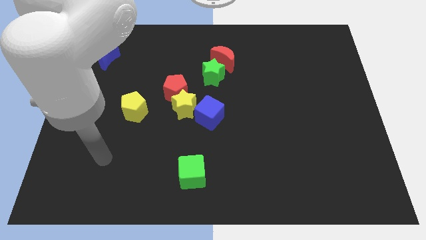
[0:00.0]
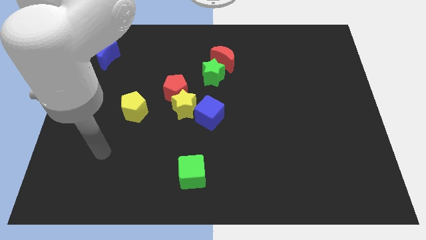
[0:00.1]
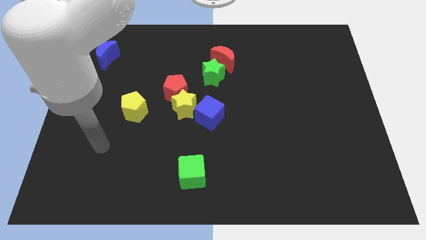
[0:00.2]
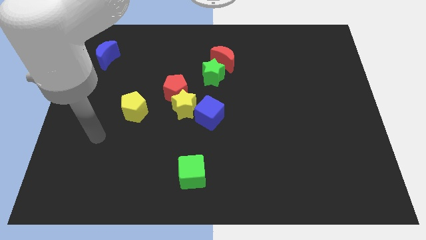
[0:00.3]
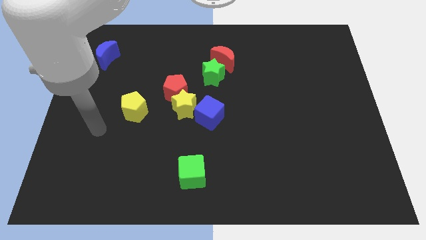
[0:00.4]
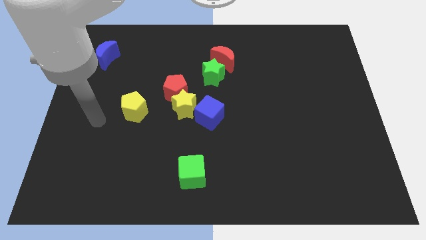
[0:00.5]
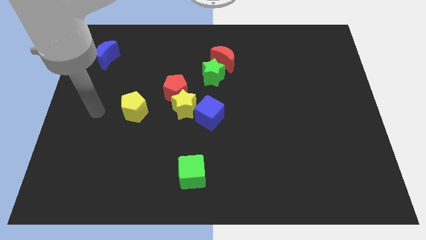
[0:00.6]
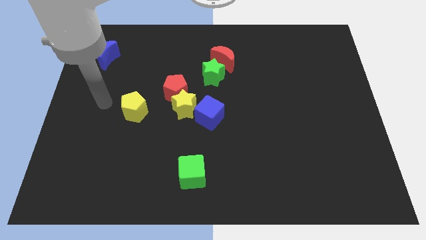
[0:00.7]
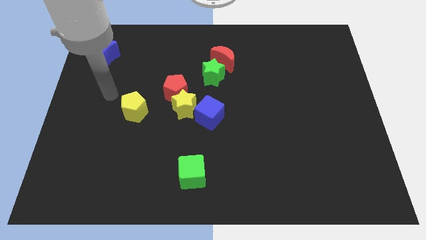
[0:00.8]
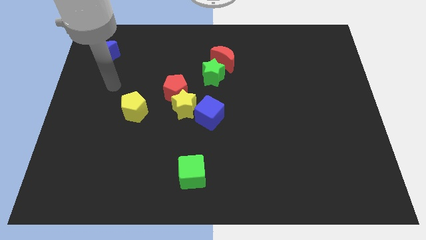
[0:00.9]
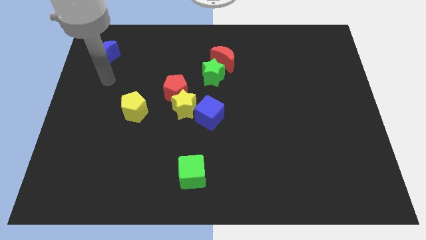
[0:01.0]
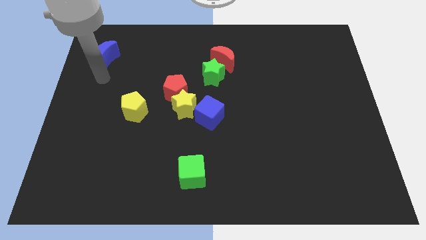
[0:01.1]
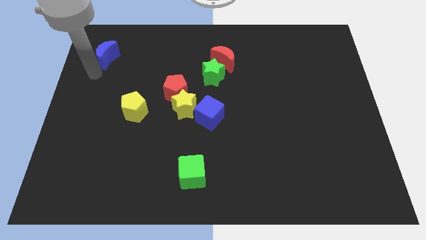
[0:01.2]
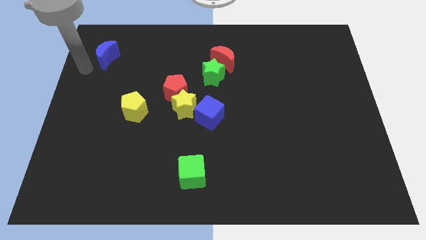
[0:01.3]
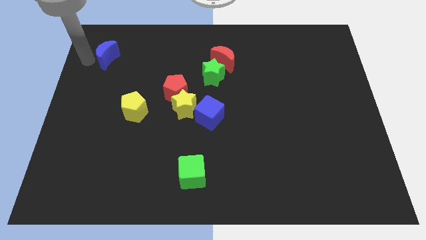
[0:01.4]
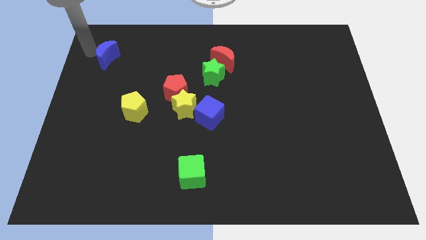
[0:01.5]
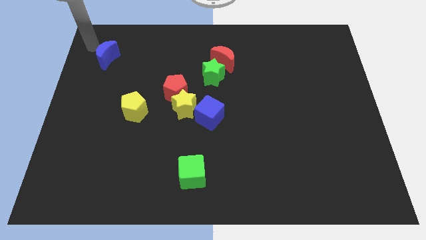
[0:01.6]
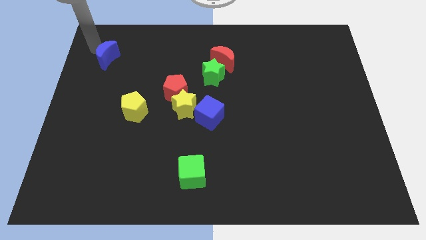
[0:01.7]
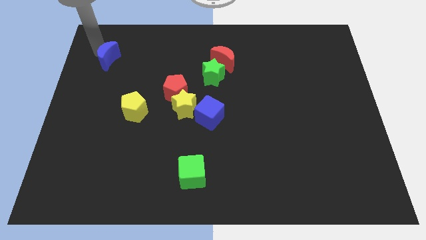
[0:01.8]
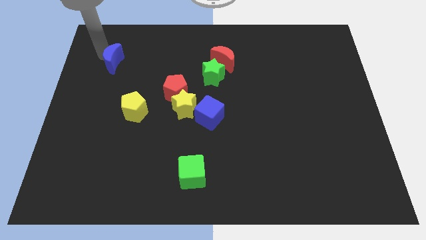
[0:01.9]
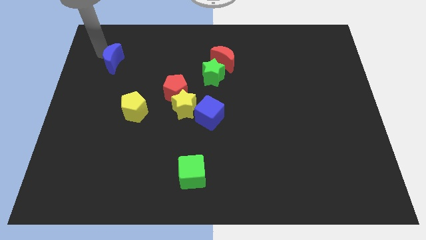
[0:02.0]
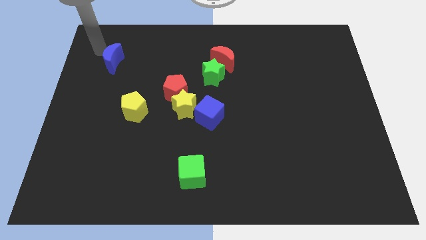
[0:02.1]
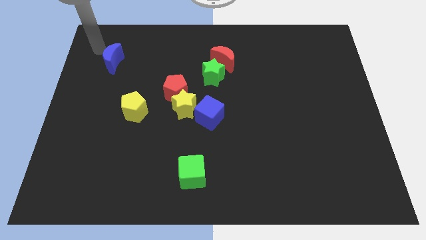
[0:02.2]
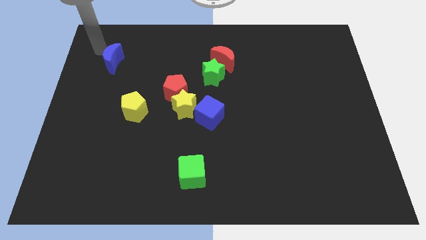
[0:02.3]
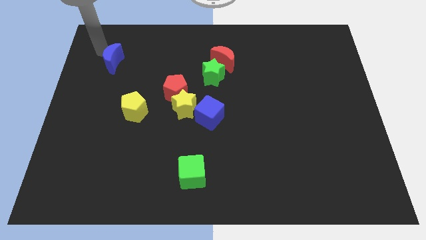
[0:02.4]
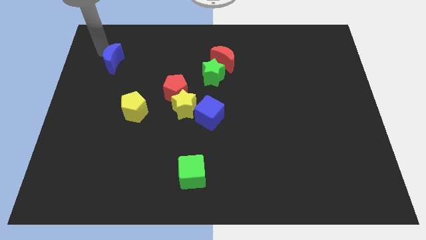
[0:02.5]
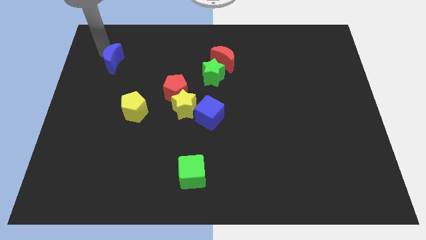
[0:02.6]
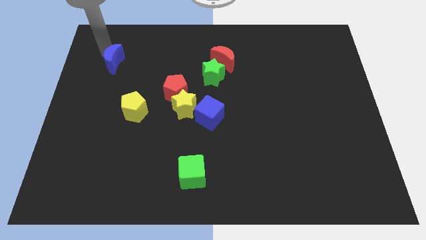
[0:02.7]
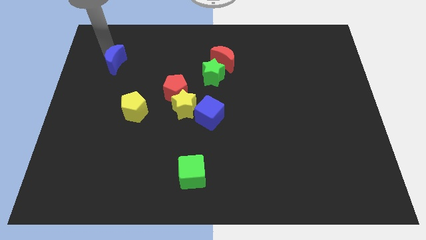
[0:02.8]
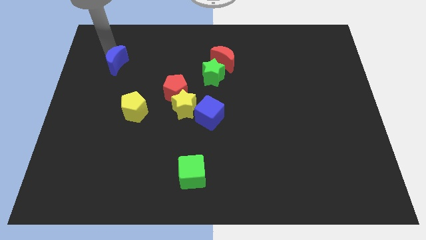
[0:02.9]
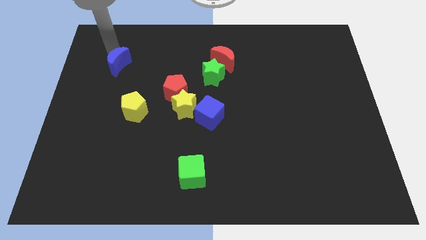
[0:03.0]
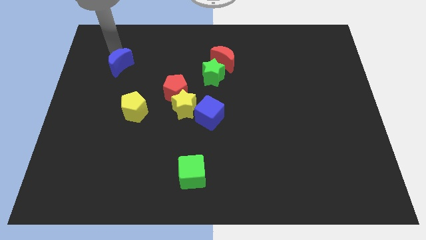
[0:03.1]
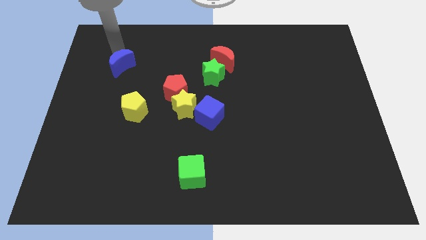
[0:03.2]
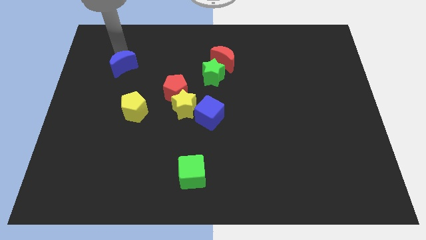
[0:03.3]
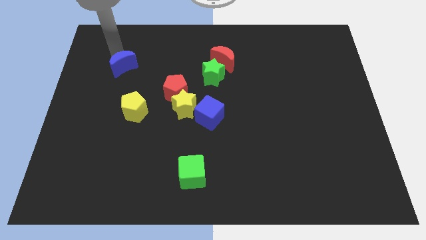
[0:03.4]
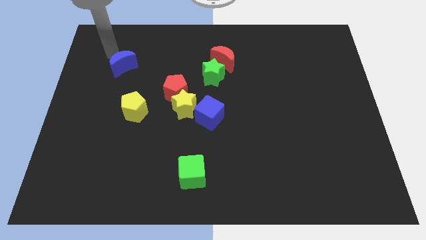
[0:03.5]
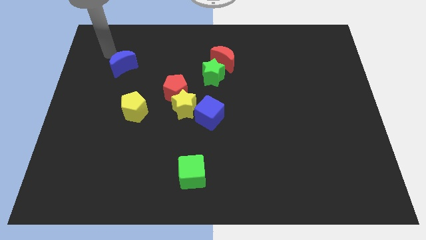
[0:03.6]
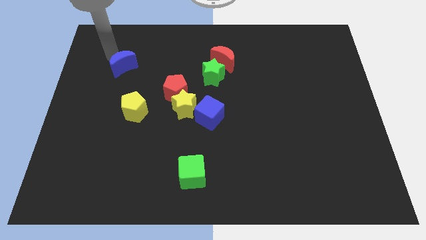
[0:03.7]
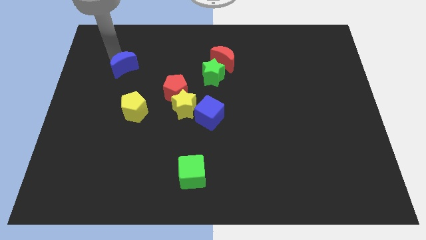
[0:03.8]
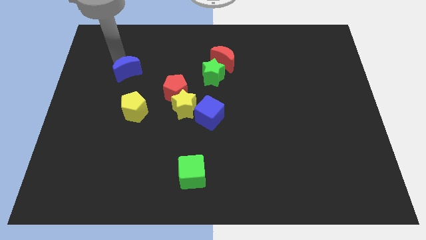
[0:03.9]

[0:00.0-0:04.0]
slightly slide the blue moon diagonally downwards and to the right

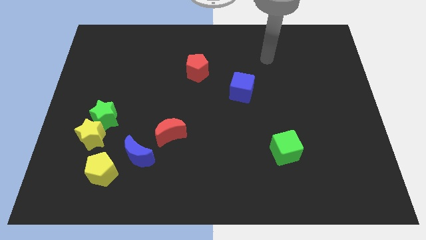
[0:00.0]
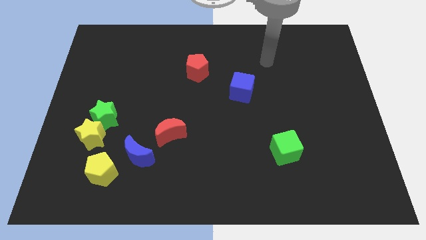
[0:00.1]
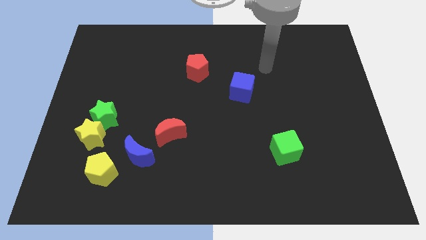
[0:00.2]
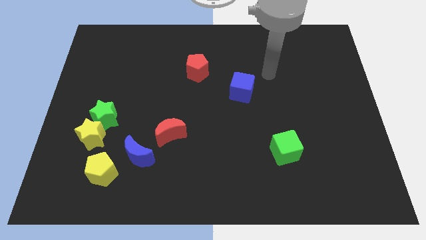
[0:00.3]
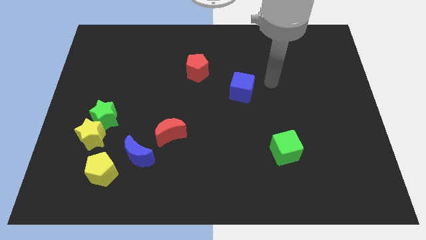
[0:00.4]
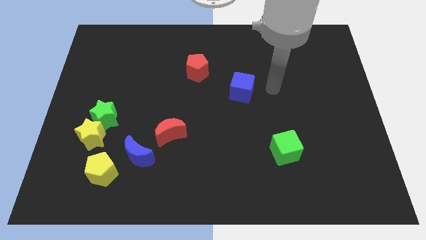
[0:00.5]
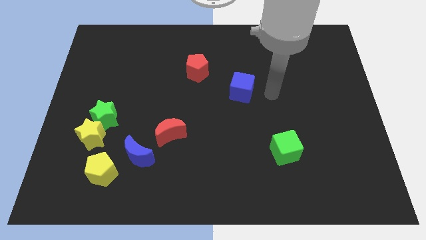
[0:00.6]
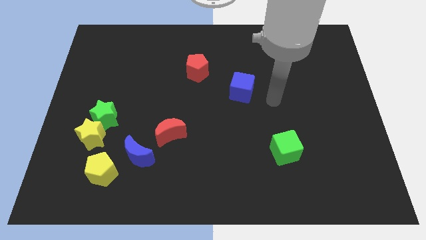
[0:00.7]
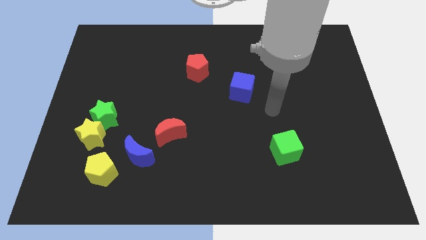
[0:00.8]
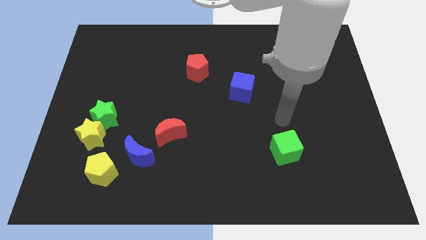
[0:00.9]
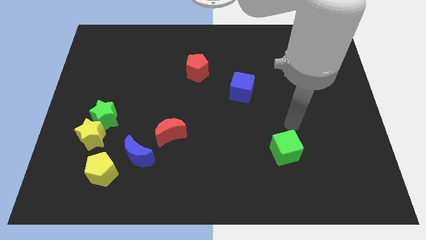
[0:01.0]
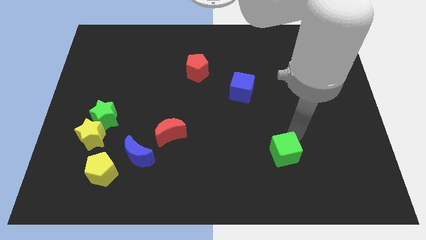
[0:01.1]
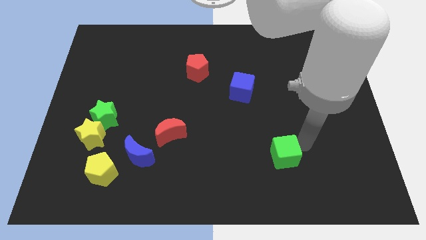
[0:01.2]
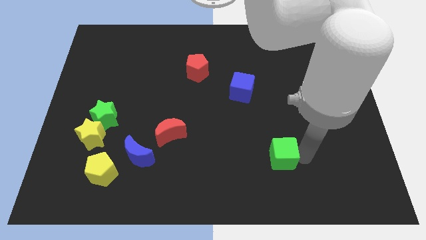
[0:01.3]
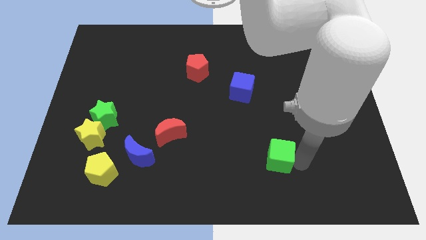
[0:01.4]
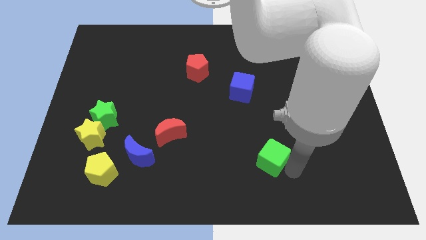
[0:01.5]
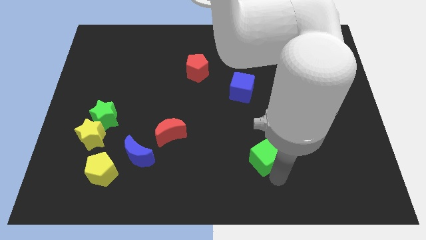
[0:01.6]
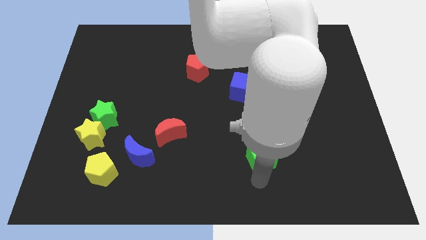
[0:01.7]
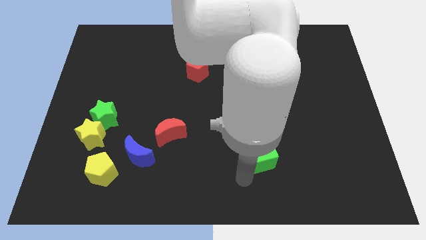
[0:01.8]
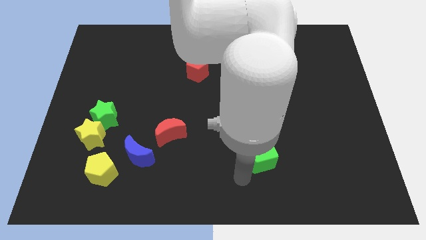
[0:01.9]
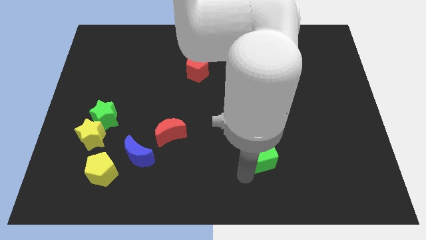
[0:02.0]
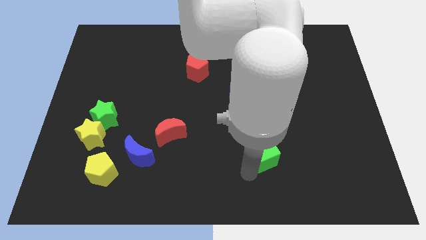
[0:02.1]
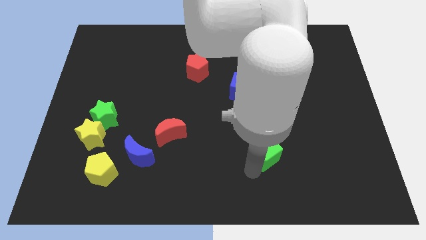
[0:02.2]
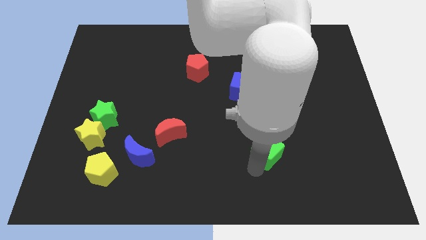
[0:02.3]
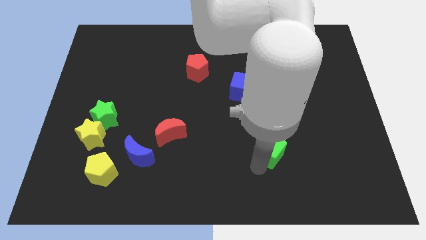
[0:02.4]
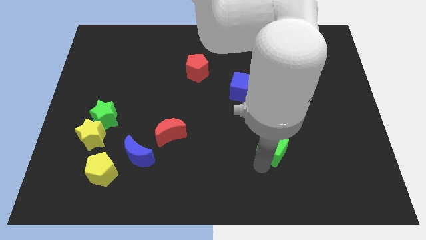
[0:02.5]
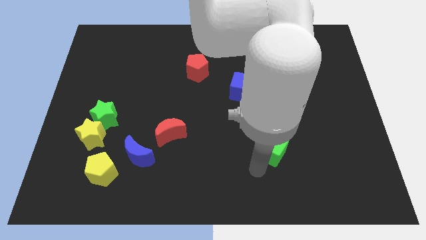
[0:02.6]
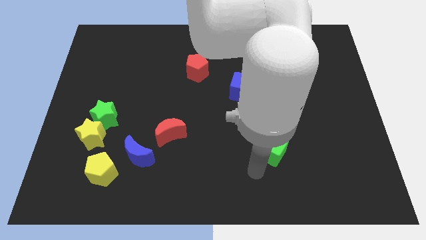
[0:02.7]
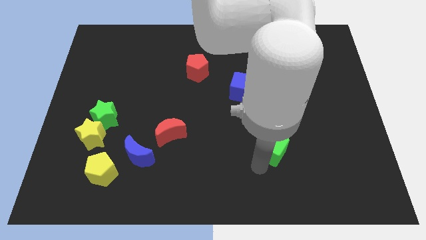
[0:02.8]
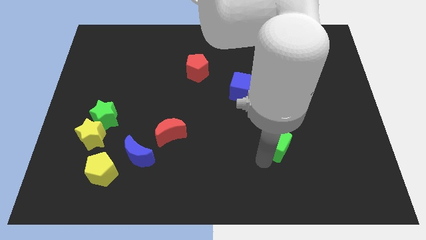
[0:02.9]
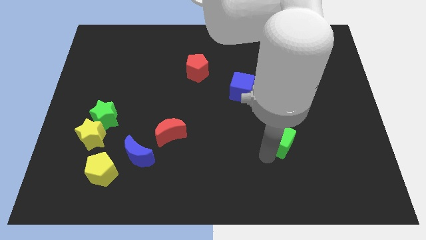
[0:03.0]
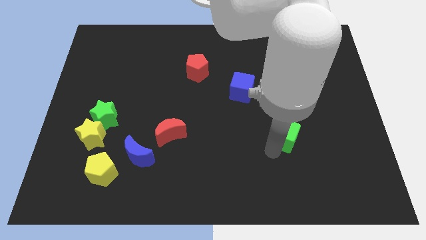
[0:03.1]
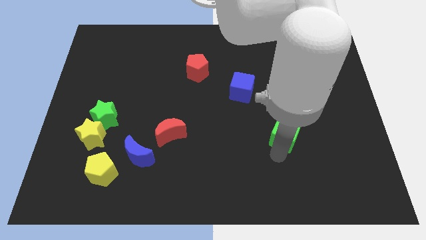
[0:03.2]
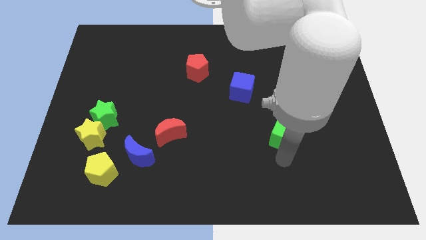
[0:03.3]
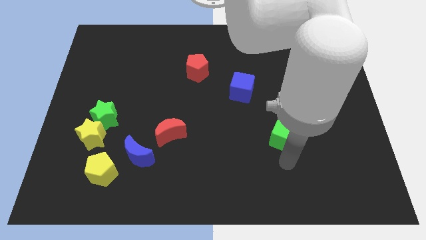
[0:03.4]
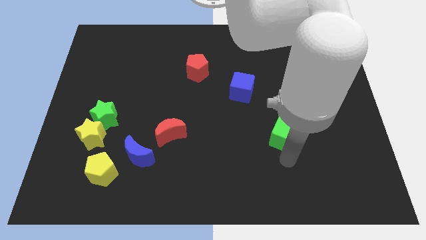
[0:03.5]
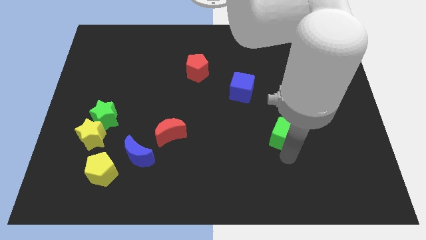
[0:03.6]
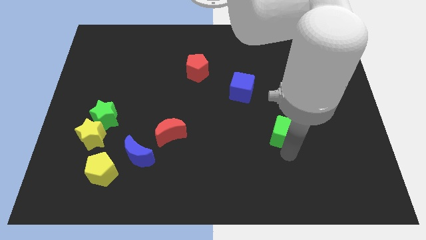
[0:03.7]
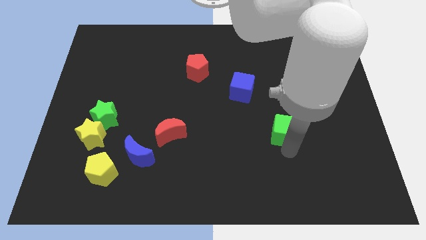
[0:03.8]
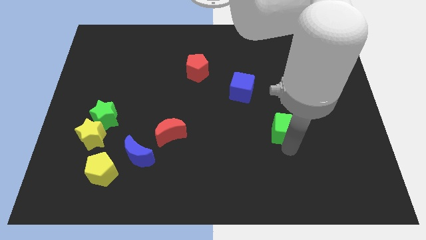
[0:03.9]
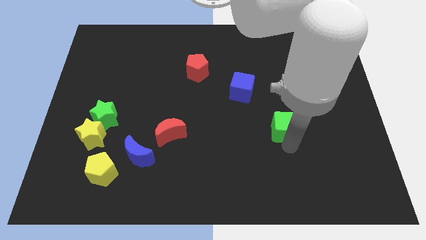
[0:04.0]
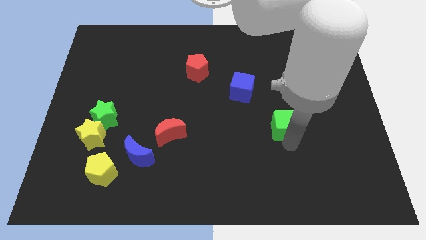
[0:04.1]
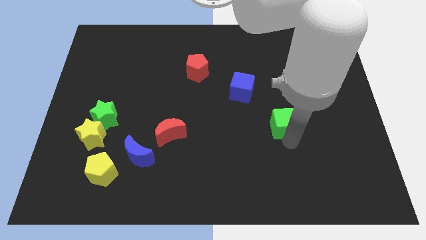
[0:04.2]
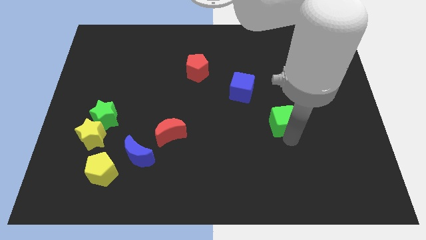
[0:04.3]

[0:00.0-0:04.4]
slide the green cube up a little bit
